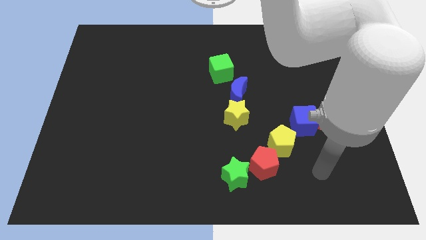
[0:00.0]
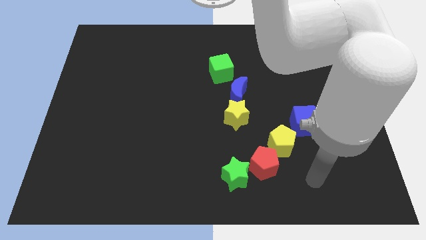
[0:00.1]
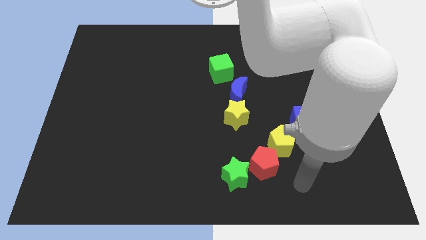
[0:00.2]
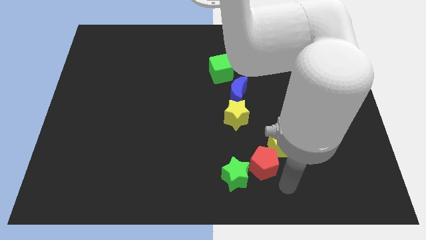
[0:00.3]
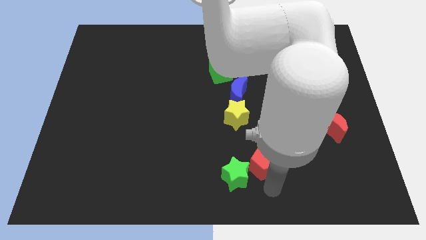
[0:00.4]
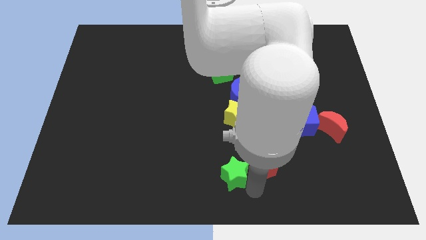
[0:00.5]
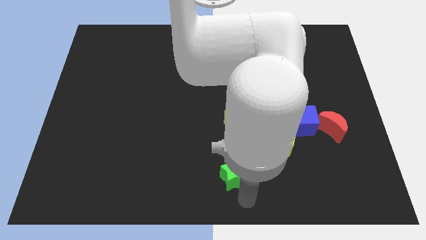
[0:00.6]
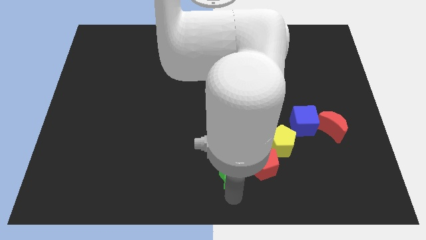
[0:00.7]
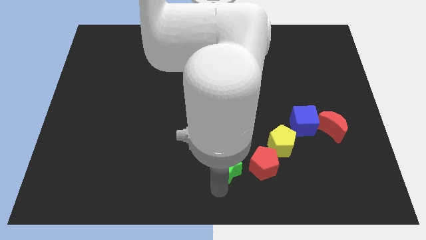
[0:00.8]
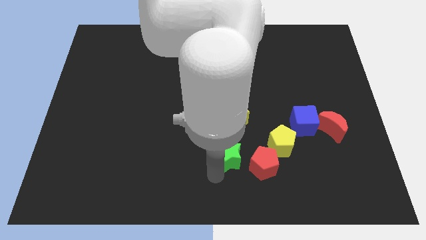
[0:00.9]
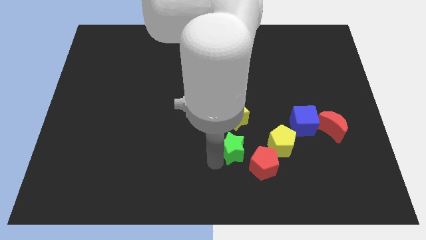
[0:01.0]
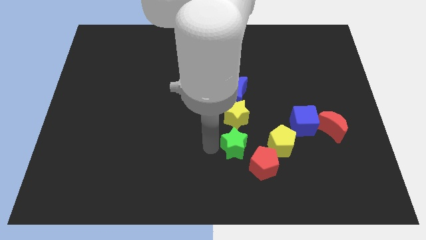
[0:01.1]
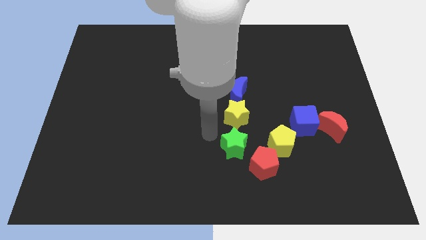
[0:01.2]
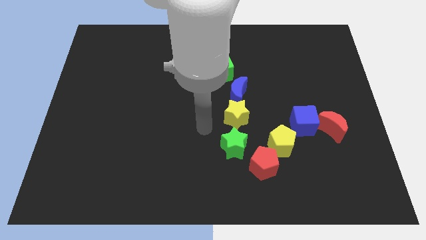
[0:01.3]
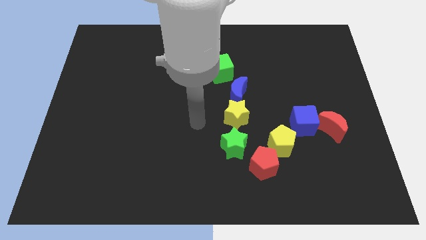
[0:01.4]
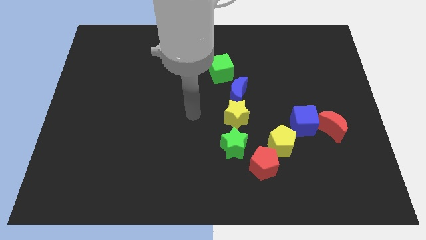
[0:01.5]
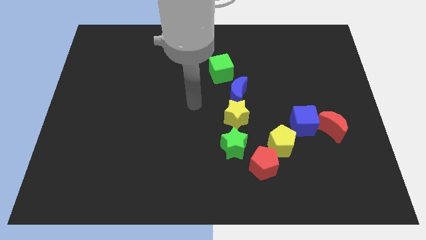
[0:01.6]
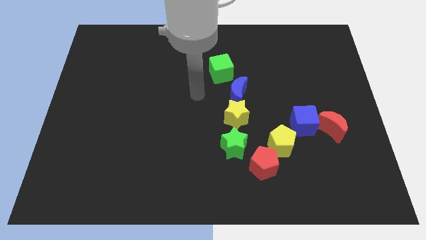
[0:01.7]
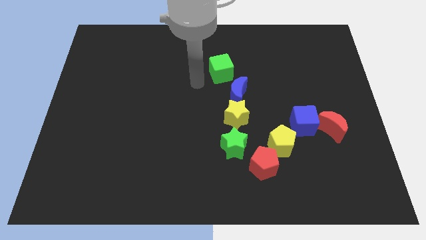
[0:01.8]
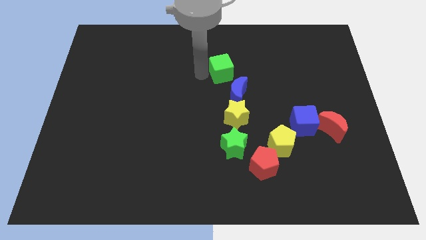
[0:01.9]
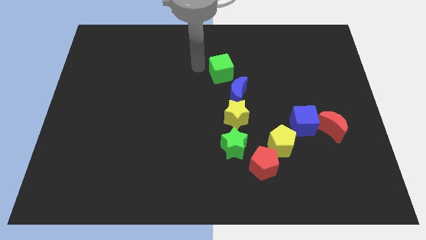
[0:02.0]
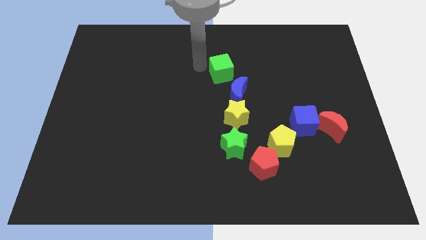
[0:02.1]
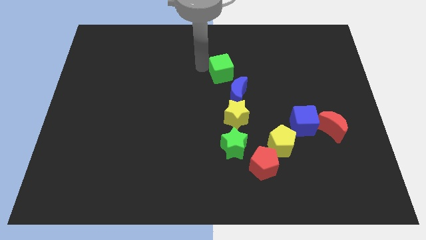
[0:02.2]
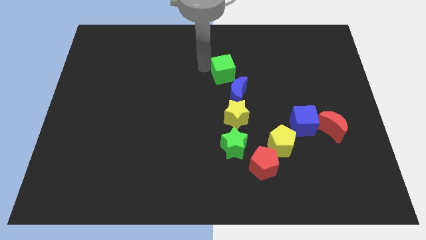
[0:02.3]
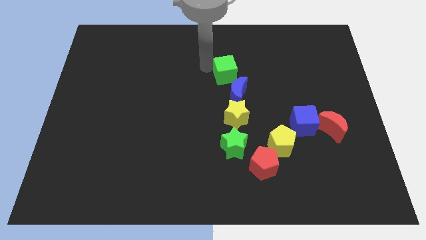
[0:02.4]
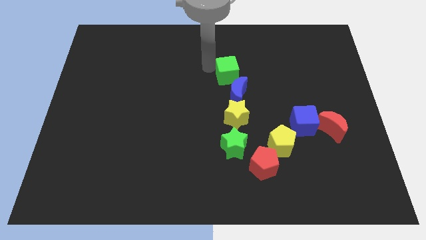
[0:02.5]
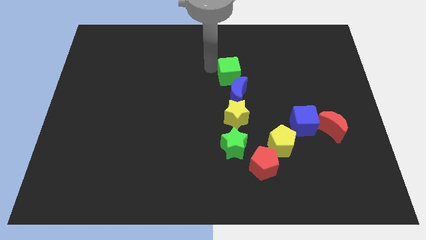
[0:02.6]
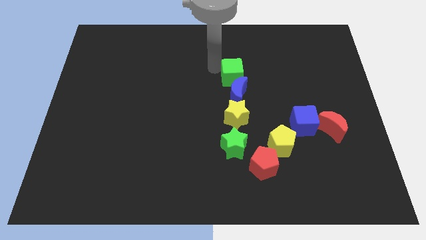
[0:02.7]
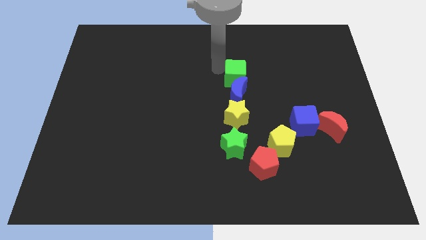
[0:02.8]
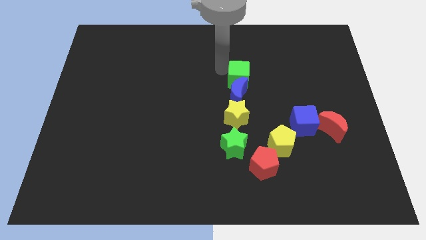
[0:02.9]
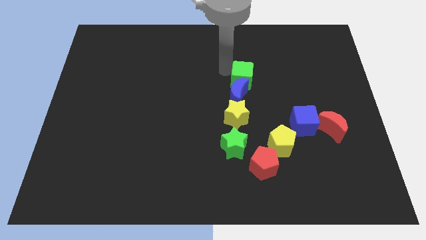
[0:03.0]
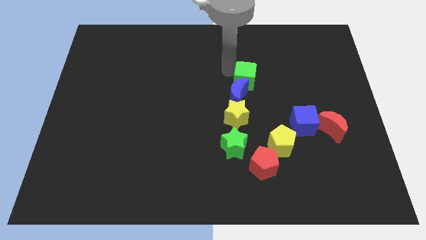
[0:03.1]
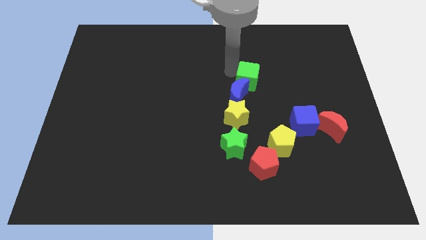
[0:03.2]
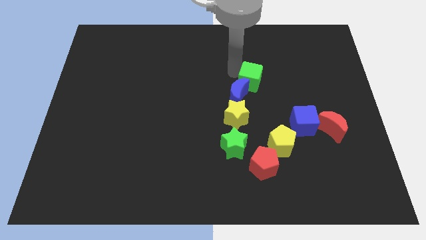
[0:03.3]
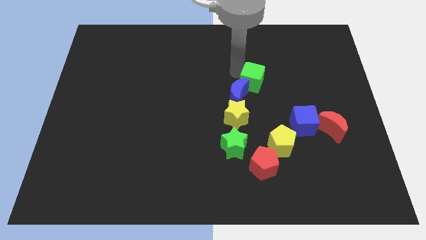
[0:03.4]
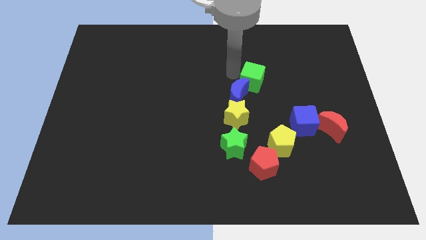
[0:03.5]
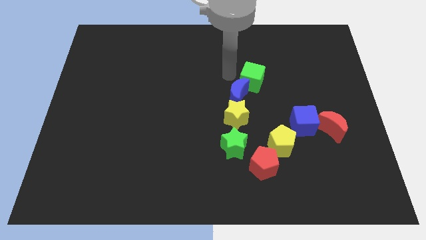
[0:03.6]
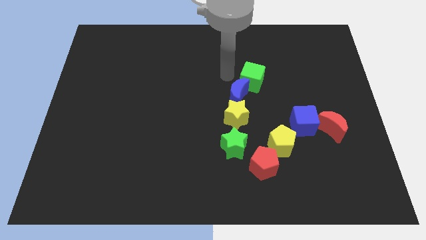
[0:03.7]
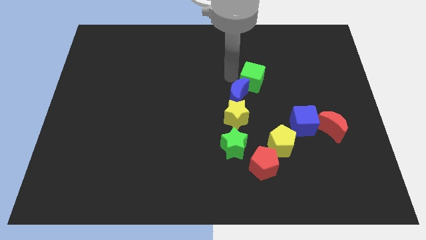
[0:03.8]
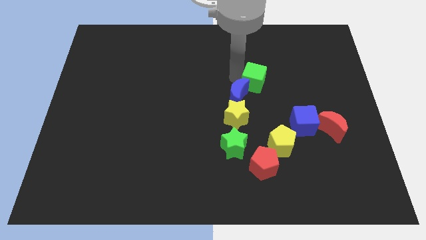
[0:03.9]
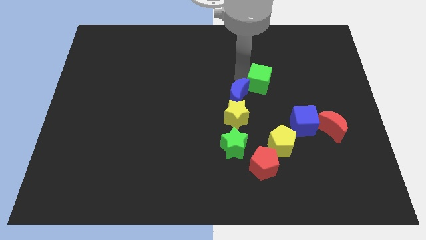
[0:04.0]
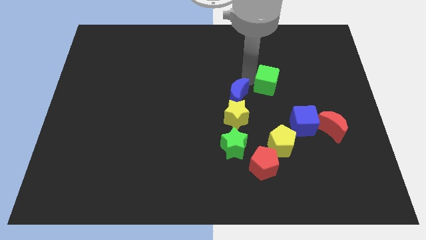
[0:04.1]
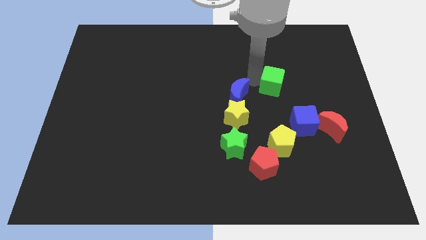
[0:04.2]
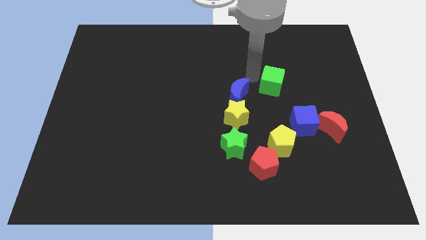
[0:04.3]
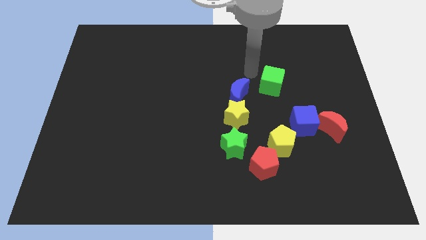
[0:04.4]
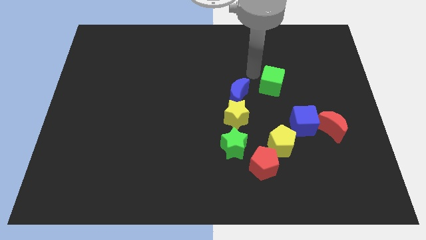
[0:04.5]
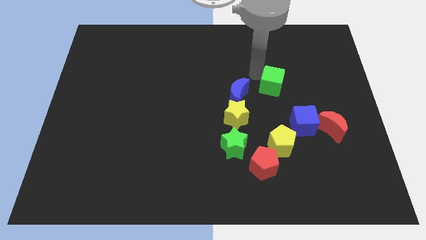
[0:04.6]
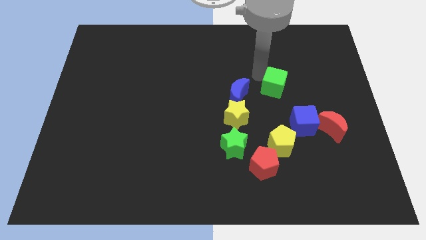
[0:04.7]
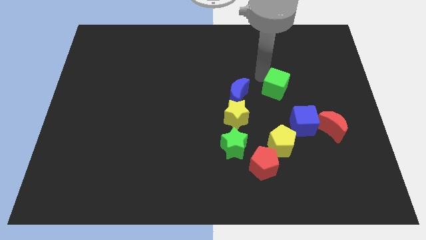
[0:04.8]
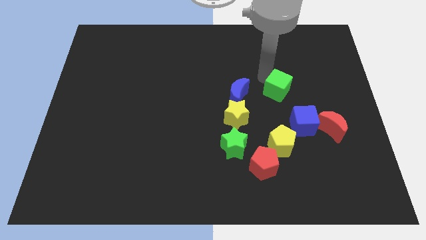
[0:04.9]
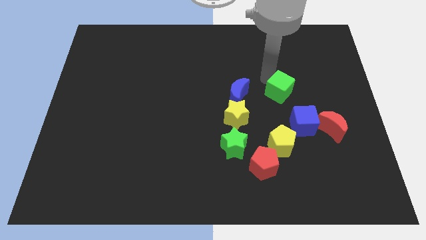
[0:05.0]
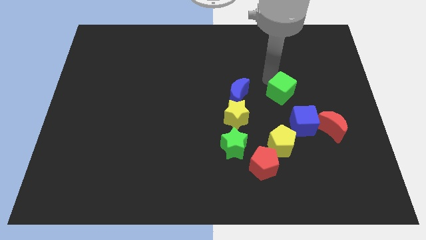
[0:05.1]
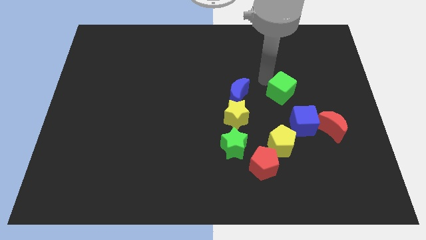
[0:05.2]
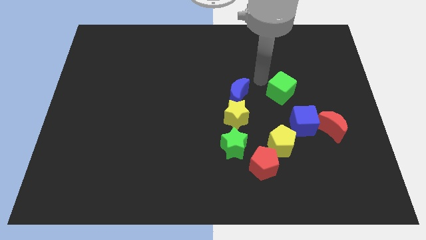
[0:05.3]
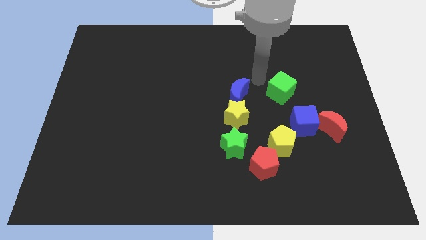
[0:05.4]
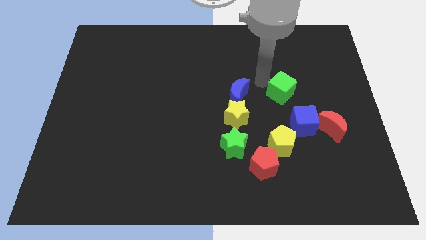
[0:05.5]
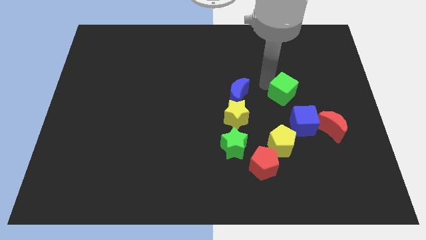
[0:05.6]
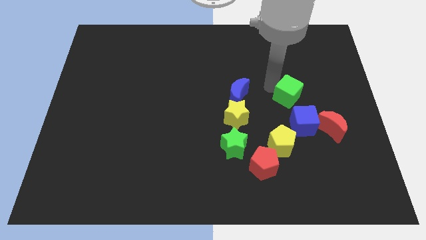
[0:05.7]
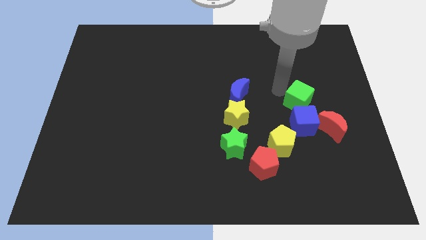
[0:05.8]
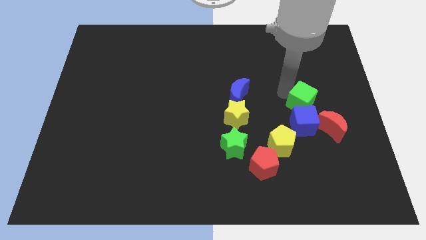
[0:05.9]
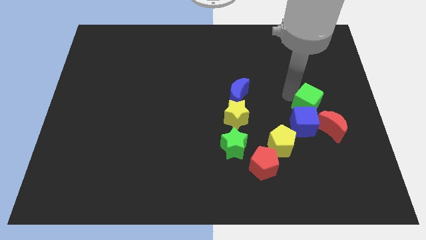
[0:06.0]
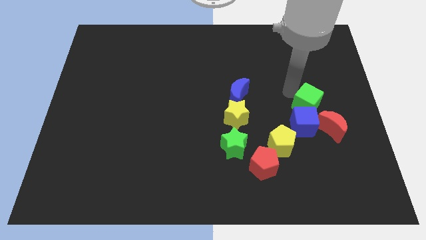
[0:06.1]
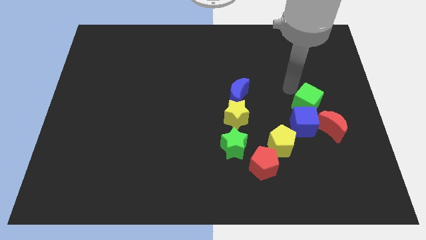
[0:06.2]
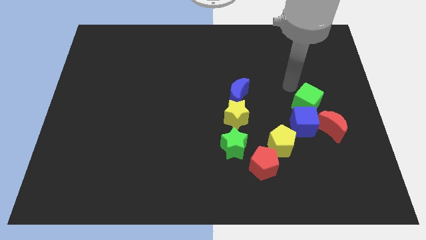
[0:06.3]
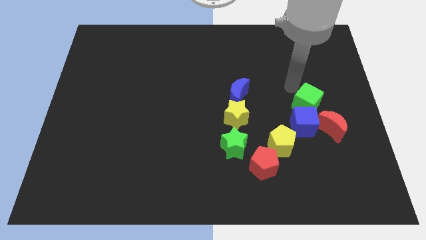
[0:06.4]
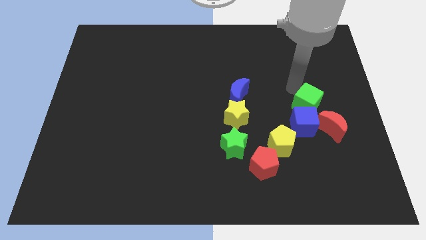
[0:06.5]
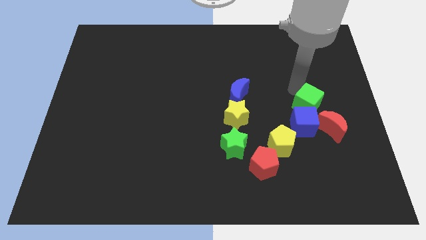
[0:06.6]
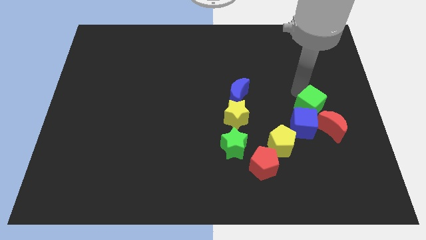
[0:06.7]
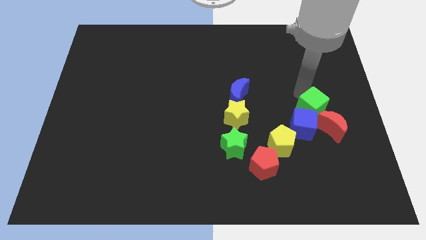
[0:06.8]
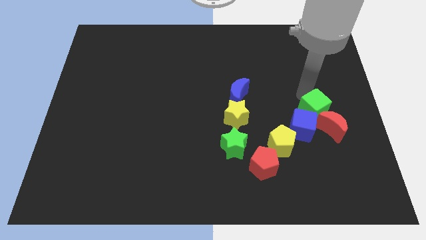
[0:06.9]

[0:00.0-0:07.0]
push the green cube towards the red moon
